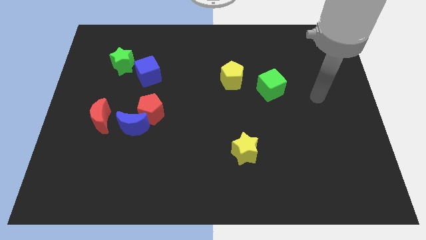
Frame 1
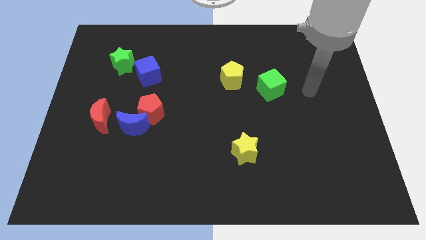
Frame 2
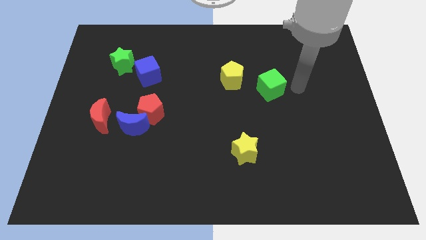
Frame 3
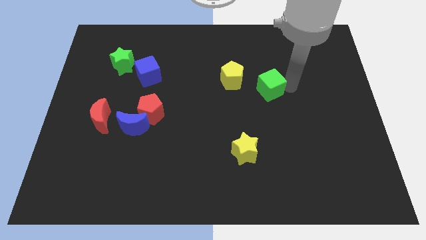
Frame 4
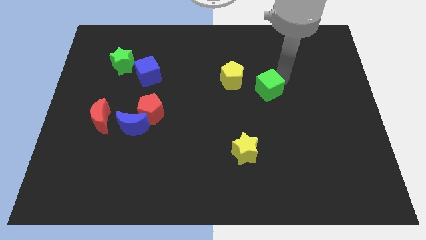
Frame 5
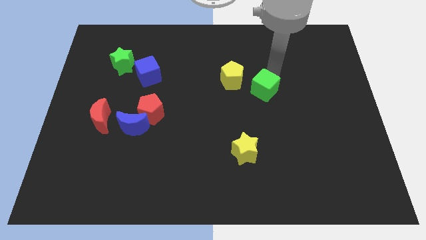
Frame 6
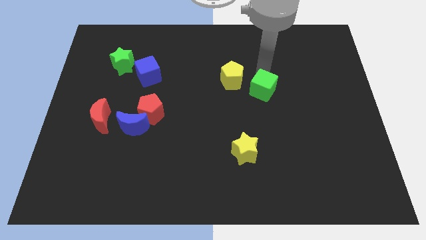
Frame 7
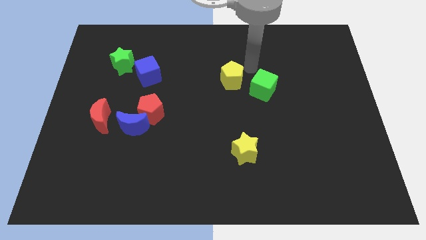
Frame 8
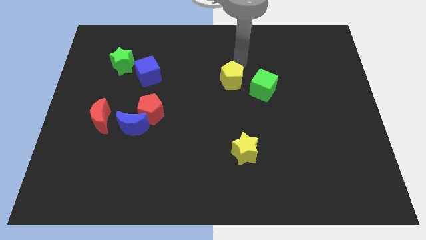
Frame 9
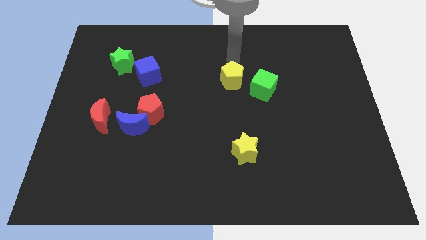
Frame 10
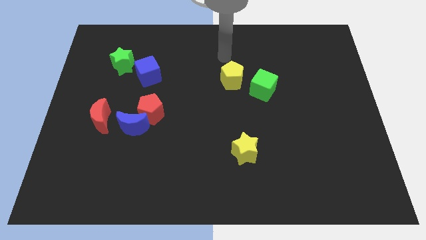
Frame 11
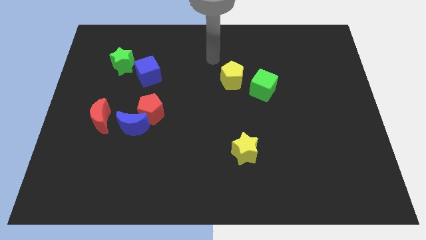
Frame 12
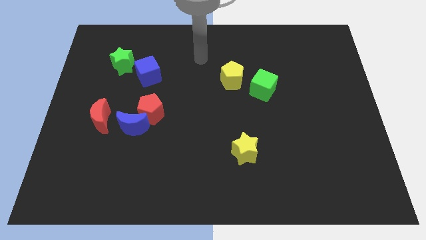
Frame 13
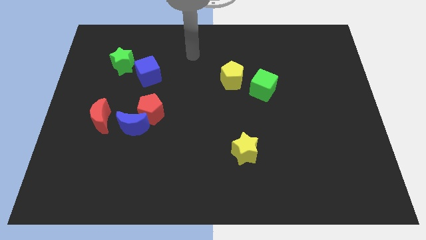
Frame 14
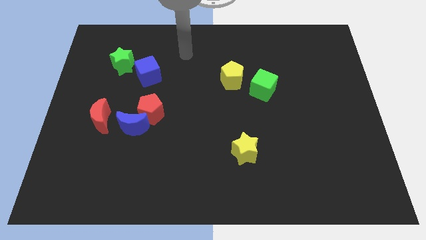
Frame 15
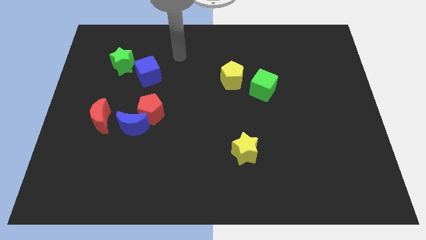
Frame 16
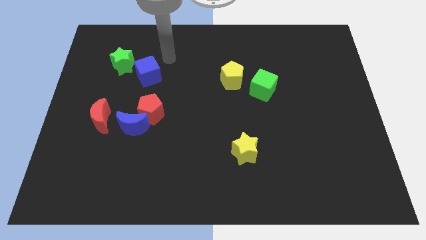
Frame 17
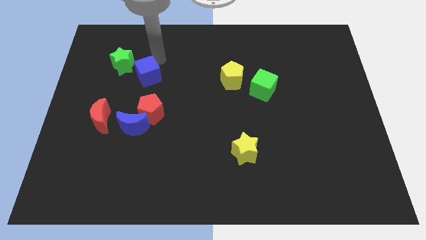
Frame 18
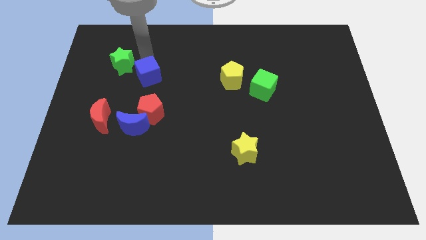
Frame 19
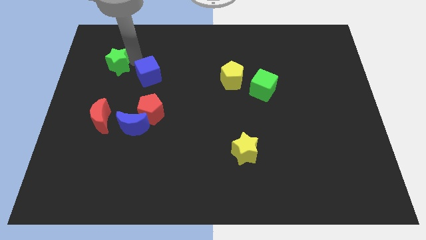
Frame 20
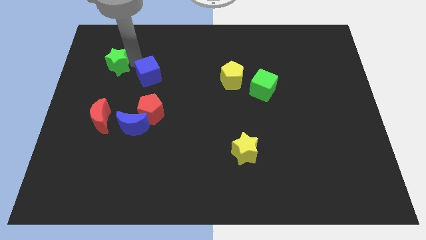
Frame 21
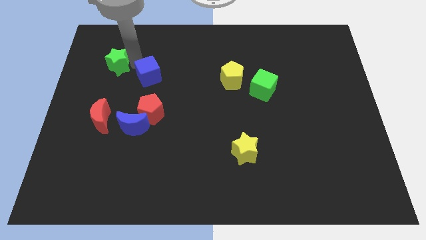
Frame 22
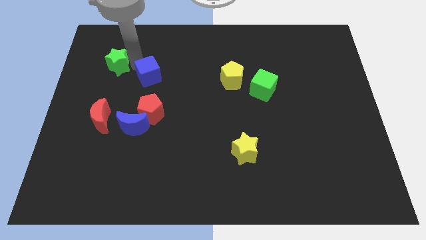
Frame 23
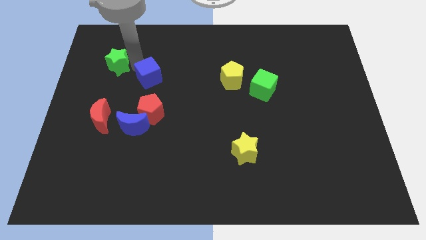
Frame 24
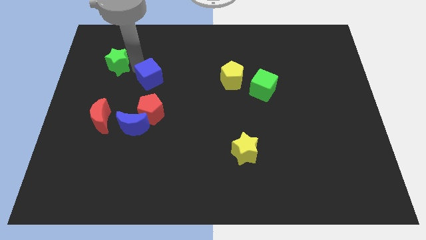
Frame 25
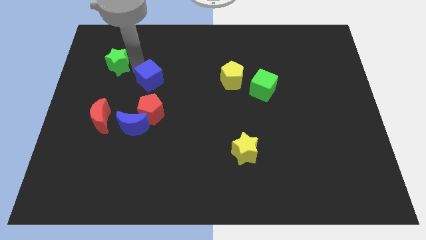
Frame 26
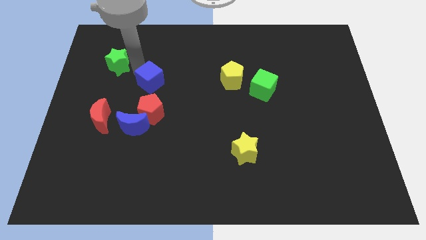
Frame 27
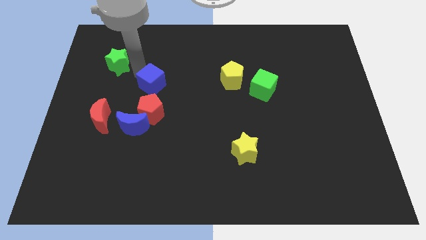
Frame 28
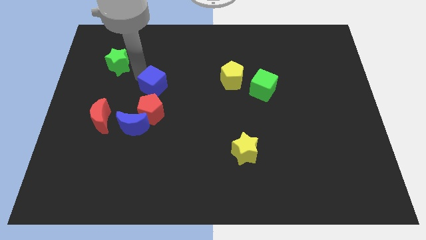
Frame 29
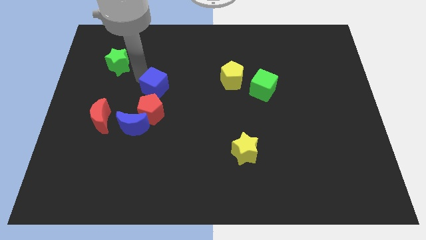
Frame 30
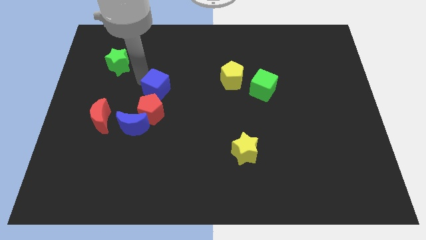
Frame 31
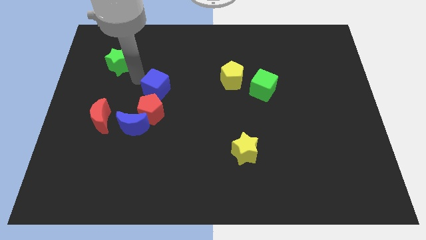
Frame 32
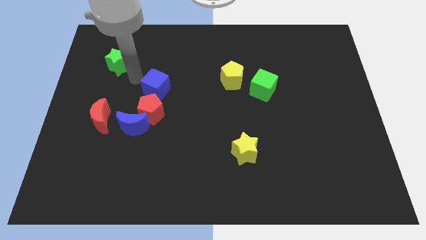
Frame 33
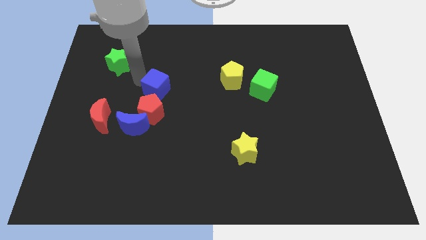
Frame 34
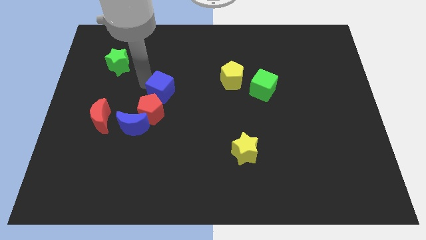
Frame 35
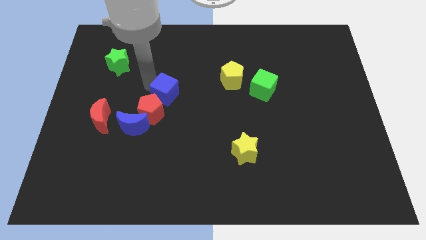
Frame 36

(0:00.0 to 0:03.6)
move the blue cube diagonally downwards and to the right a little

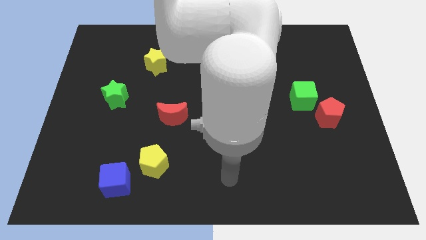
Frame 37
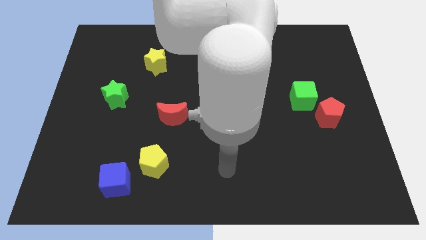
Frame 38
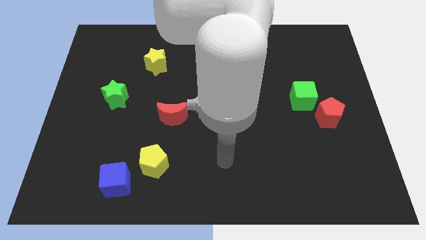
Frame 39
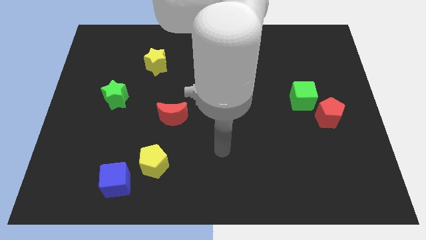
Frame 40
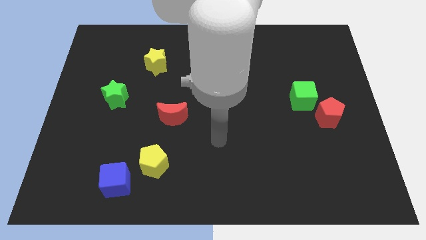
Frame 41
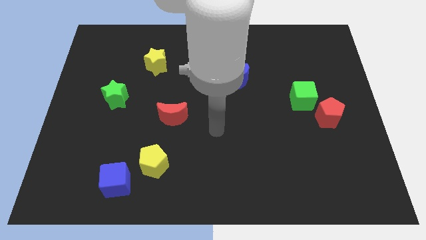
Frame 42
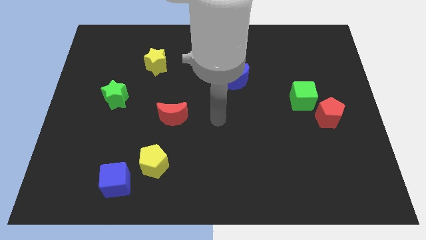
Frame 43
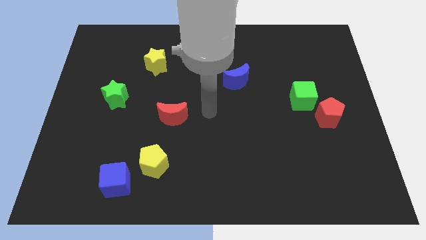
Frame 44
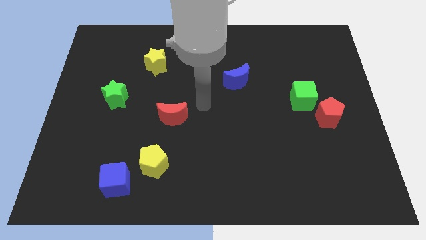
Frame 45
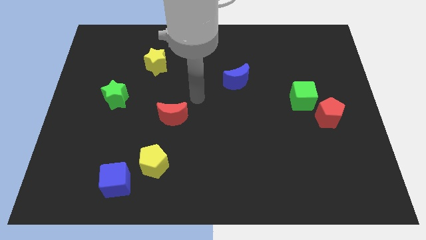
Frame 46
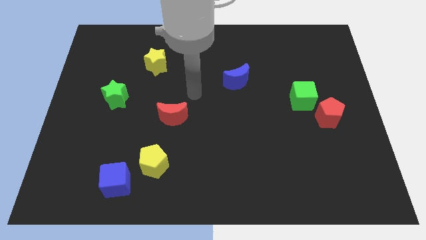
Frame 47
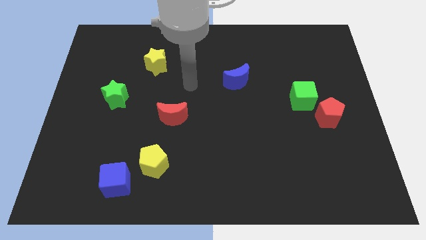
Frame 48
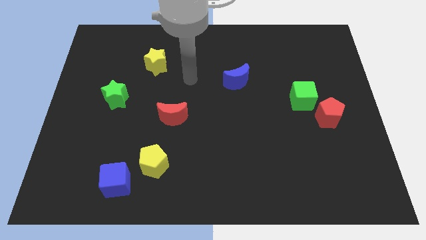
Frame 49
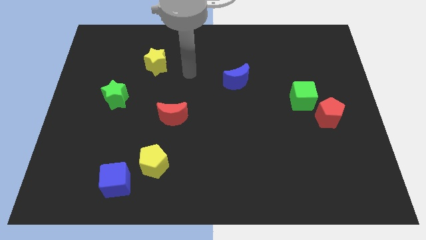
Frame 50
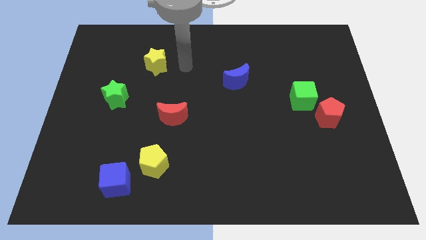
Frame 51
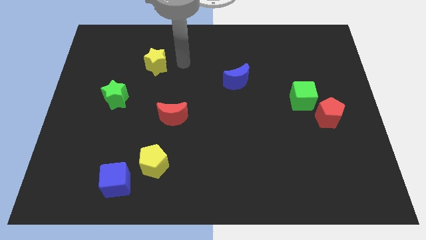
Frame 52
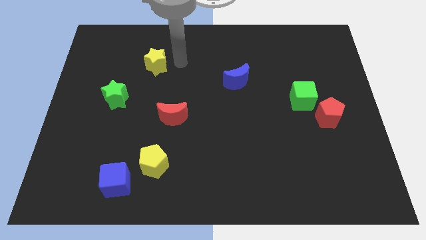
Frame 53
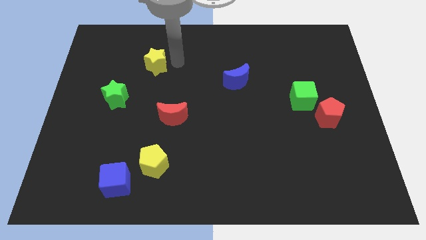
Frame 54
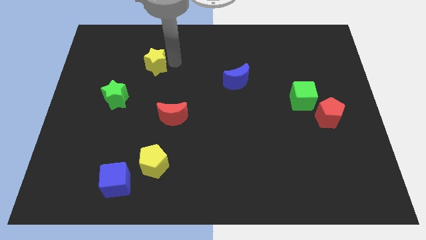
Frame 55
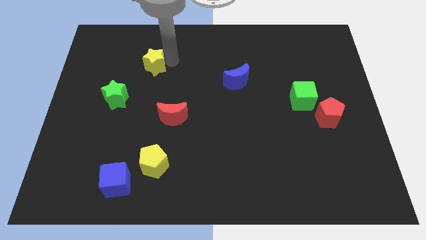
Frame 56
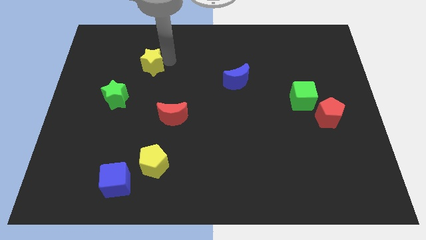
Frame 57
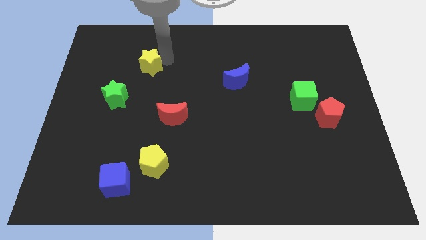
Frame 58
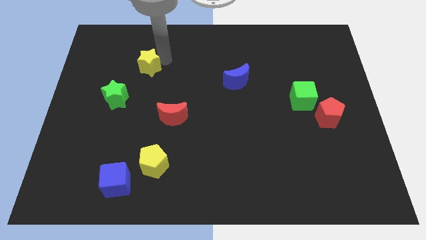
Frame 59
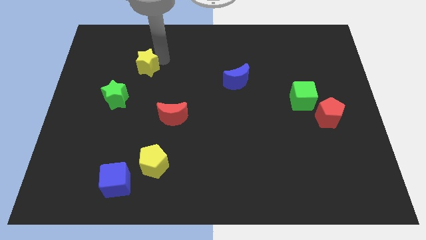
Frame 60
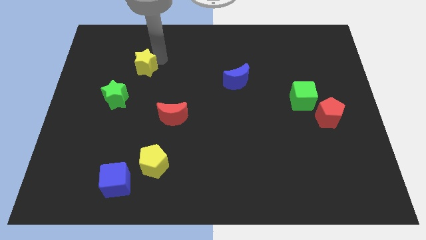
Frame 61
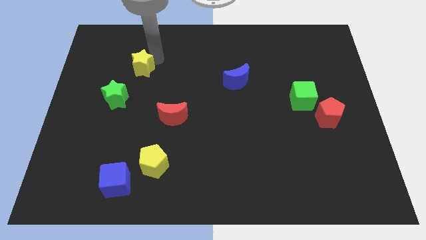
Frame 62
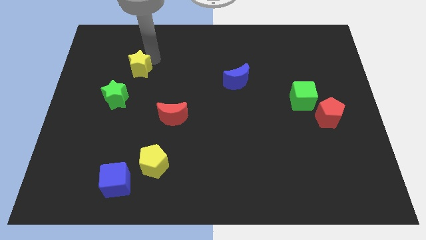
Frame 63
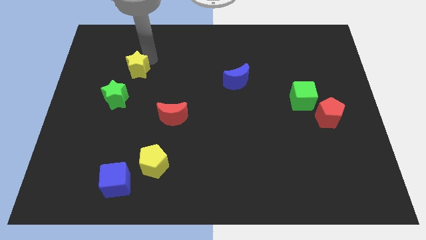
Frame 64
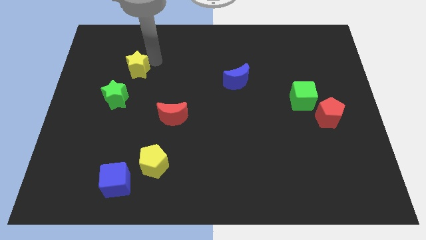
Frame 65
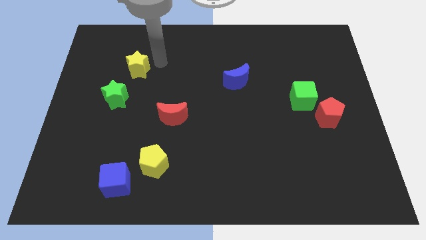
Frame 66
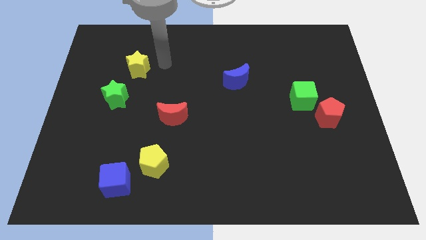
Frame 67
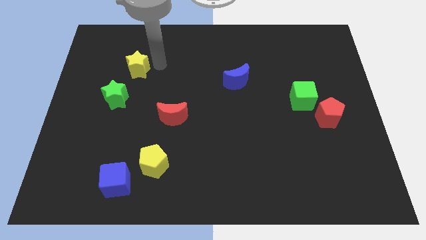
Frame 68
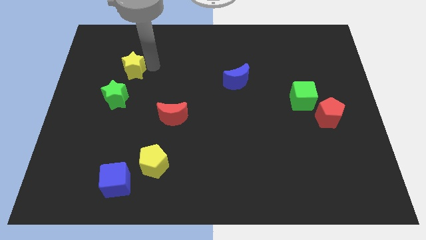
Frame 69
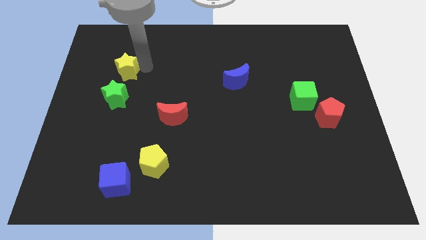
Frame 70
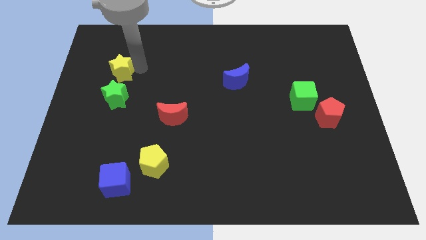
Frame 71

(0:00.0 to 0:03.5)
move the yellow star a little downwards and to the left

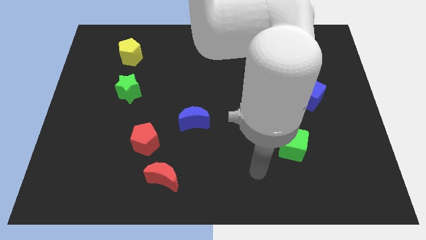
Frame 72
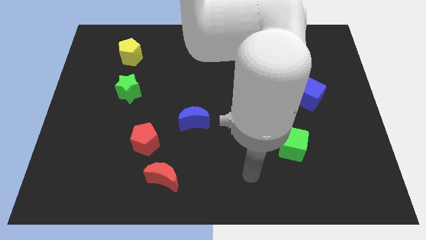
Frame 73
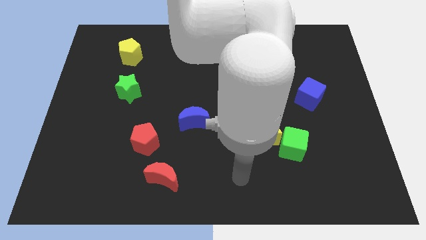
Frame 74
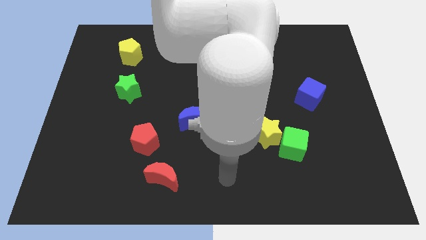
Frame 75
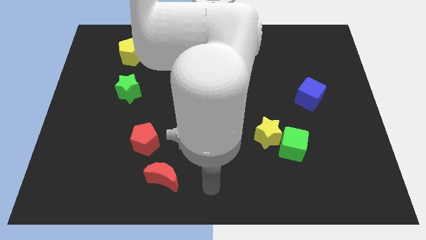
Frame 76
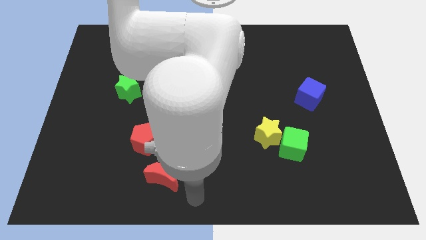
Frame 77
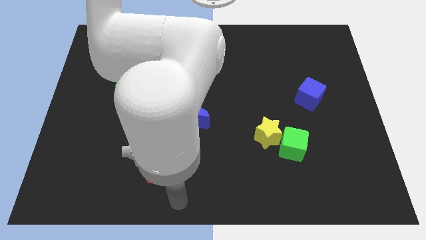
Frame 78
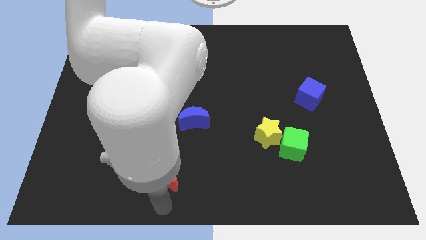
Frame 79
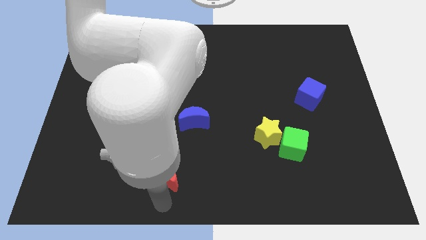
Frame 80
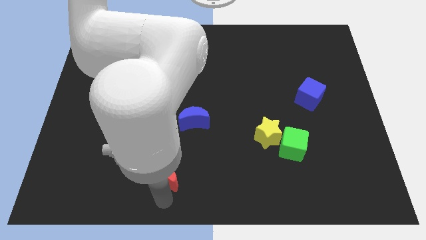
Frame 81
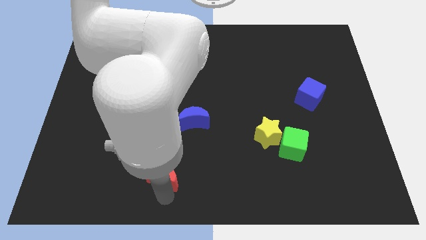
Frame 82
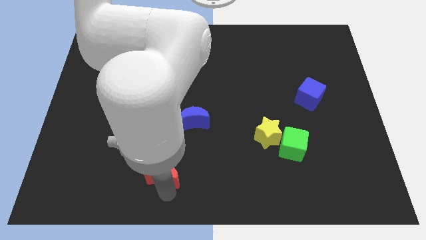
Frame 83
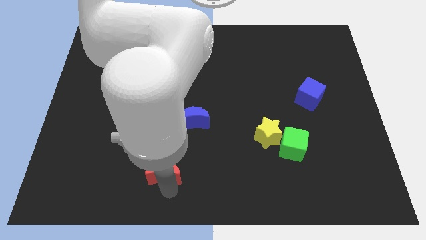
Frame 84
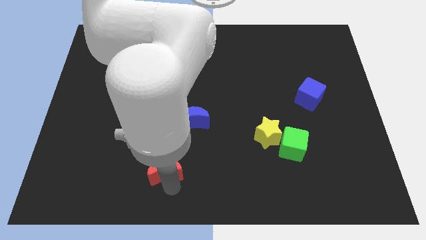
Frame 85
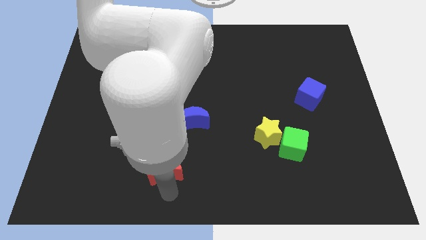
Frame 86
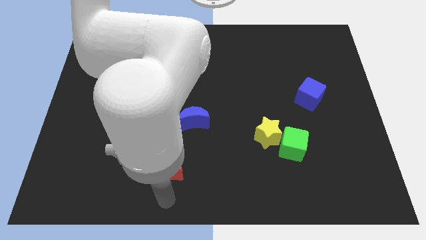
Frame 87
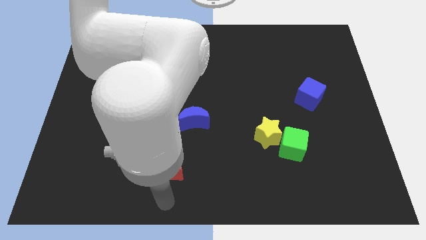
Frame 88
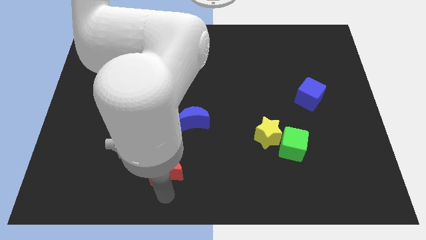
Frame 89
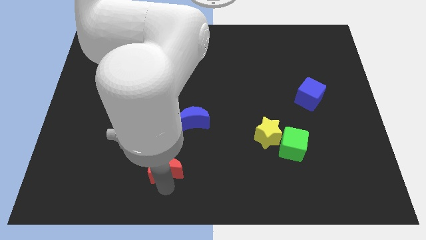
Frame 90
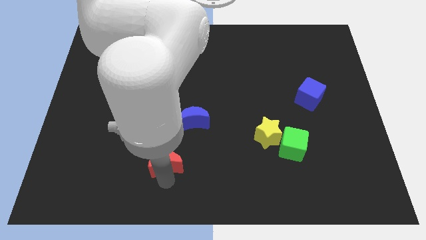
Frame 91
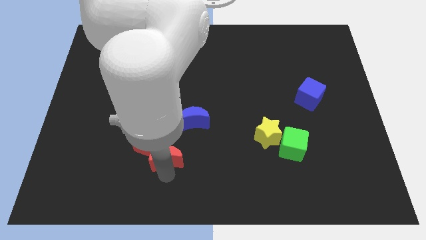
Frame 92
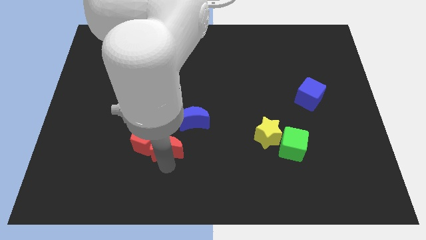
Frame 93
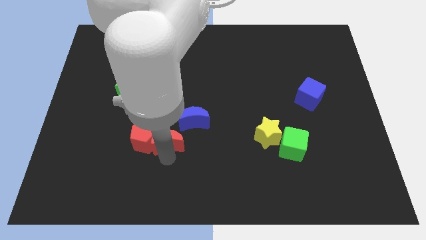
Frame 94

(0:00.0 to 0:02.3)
move the red moon up somewhat
